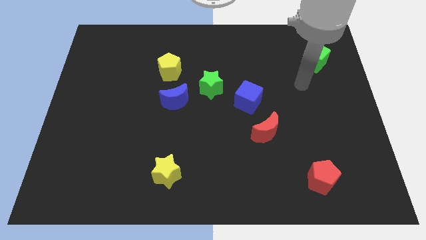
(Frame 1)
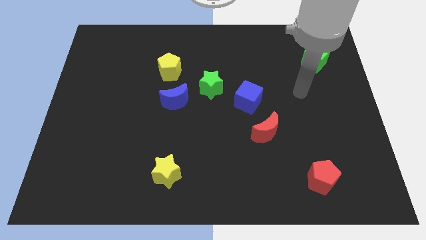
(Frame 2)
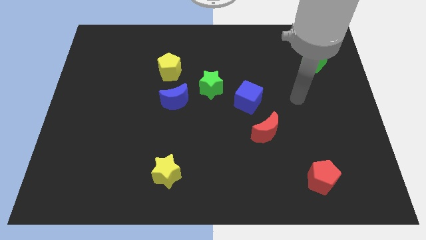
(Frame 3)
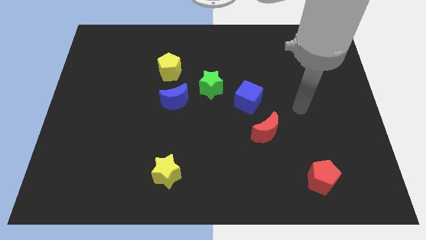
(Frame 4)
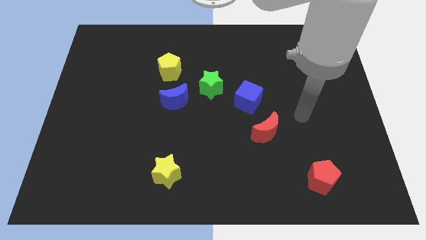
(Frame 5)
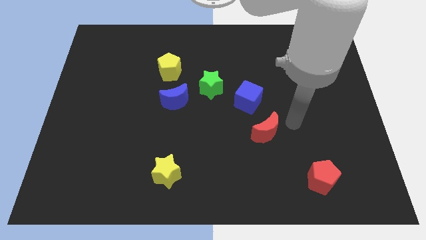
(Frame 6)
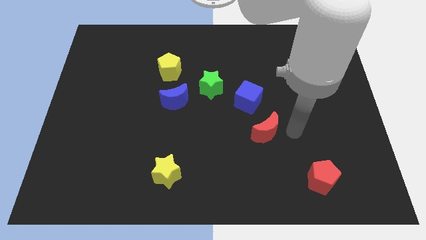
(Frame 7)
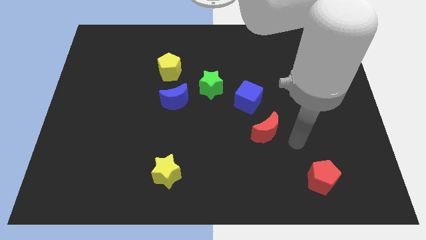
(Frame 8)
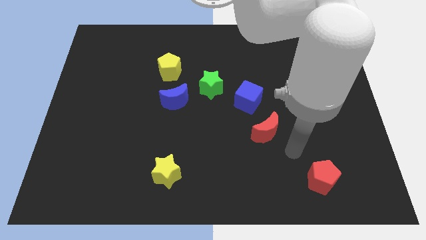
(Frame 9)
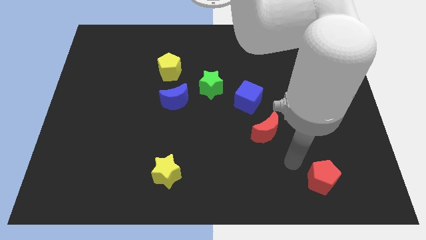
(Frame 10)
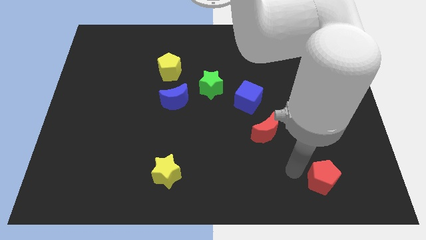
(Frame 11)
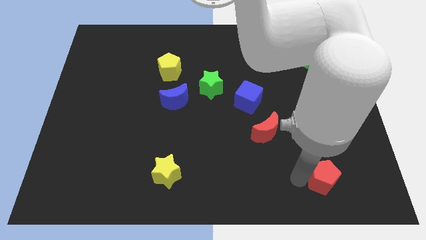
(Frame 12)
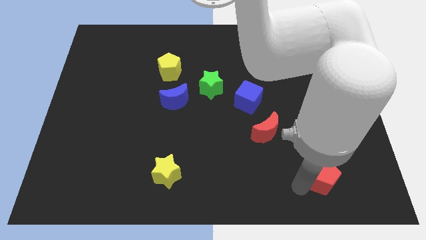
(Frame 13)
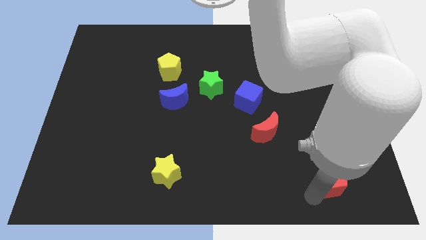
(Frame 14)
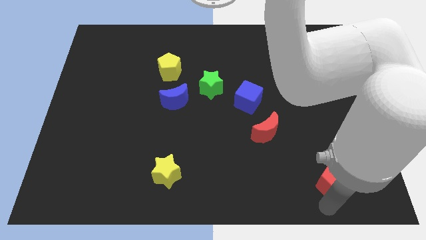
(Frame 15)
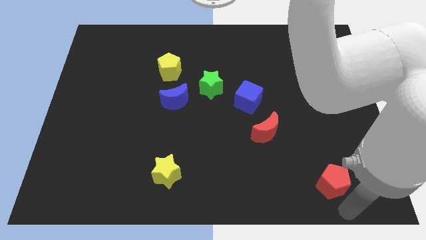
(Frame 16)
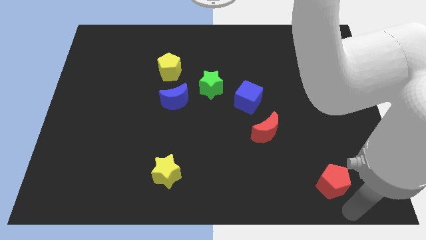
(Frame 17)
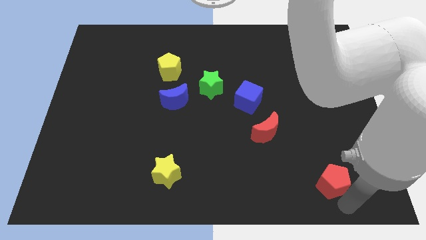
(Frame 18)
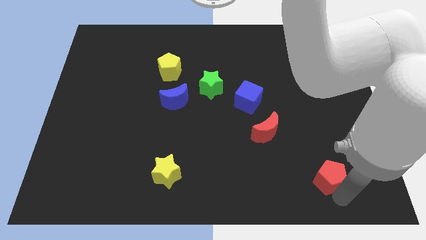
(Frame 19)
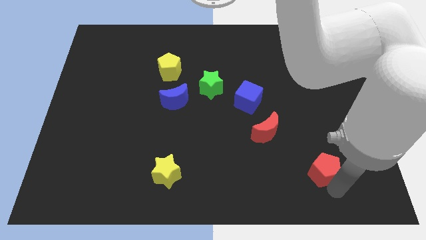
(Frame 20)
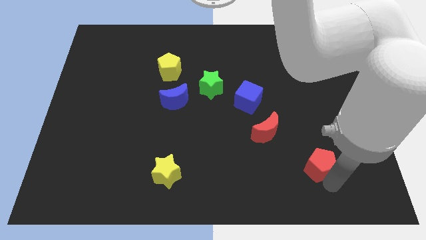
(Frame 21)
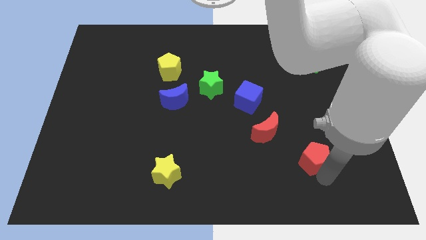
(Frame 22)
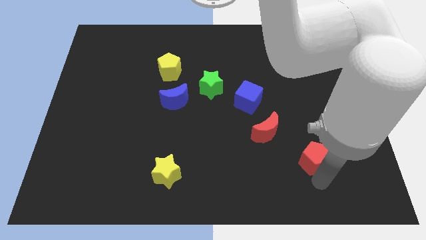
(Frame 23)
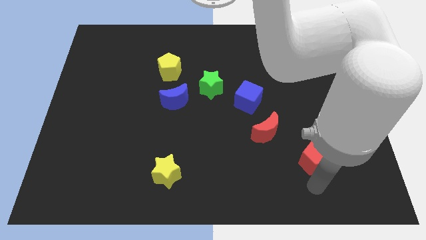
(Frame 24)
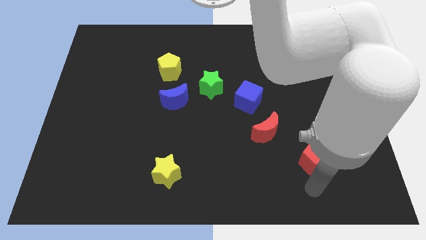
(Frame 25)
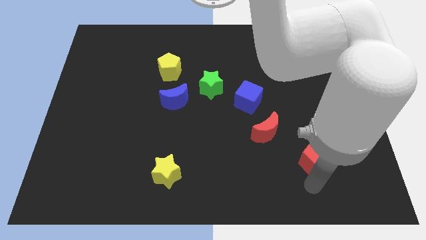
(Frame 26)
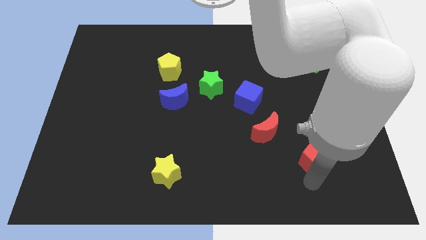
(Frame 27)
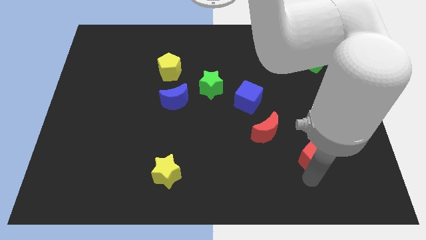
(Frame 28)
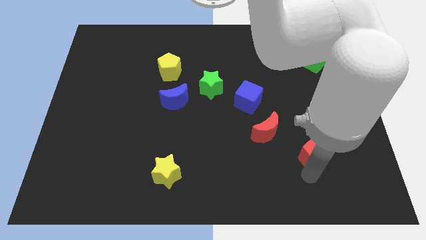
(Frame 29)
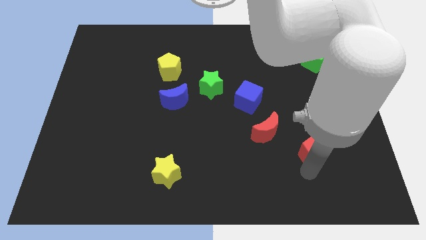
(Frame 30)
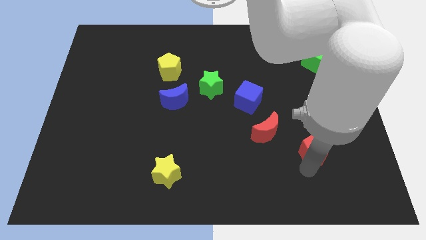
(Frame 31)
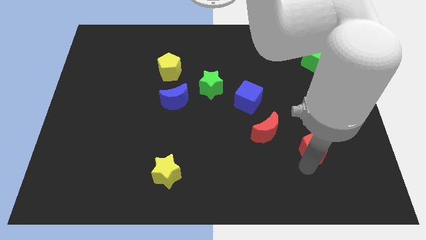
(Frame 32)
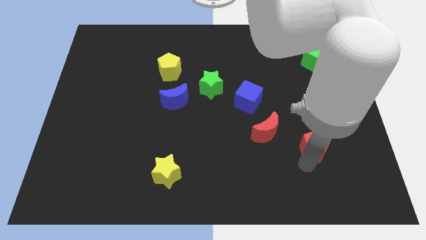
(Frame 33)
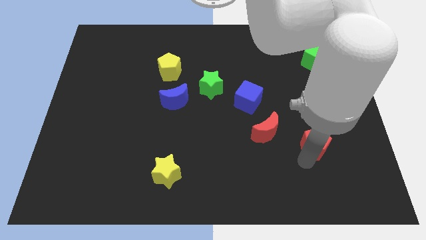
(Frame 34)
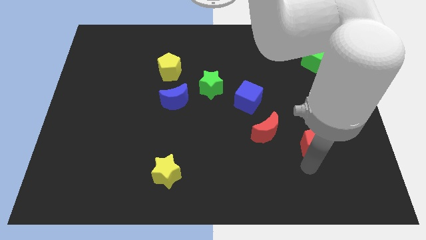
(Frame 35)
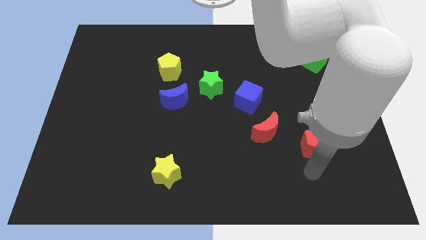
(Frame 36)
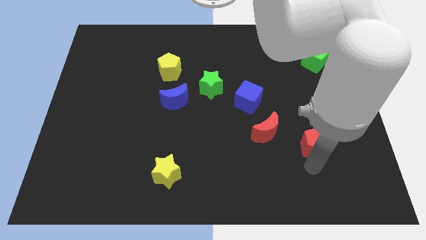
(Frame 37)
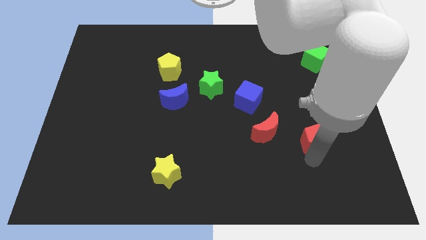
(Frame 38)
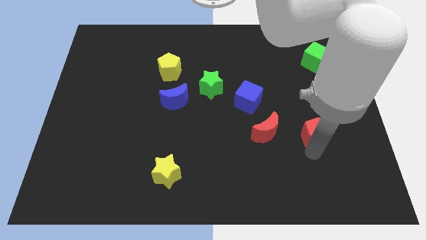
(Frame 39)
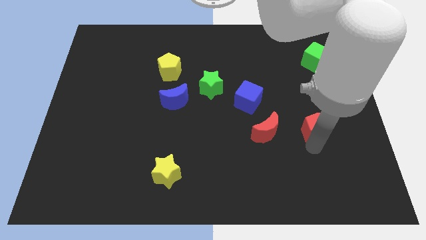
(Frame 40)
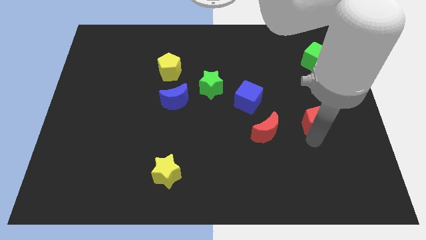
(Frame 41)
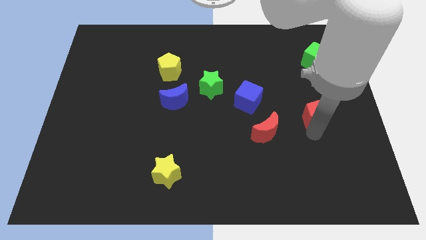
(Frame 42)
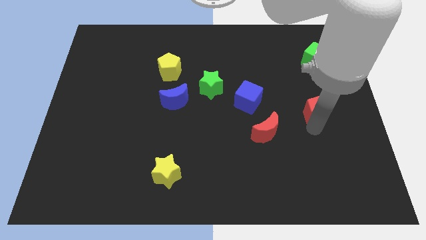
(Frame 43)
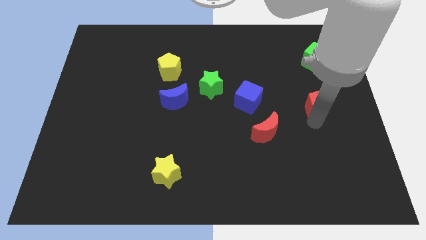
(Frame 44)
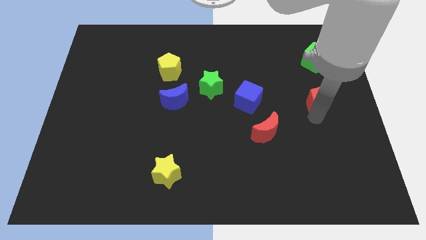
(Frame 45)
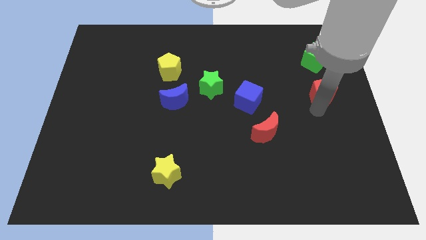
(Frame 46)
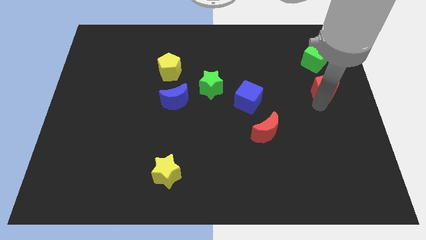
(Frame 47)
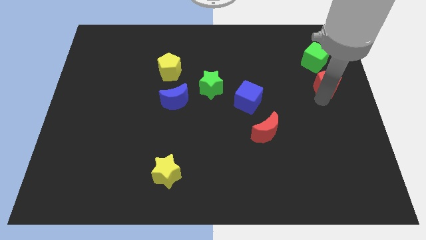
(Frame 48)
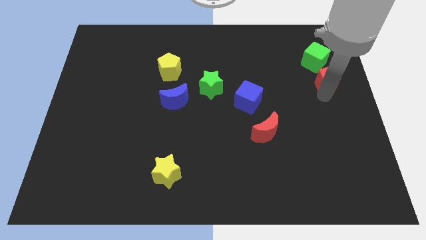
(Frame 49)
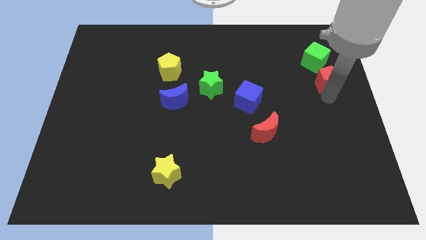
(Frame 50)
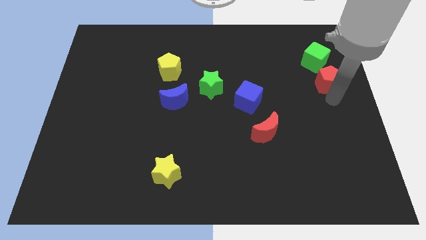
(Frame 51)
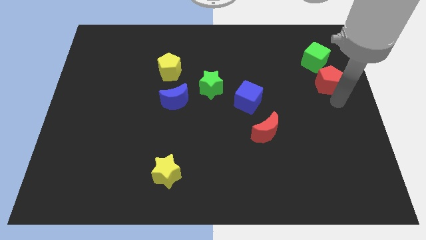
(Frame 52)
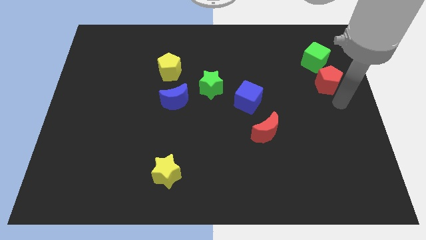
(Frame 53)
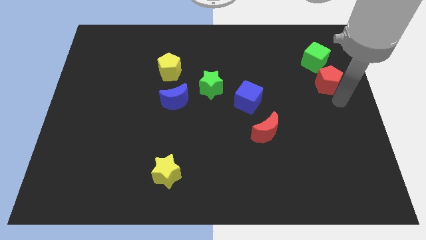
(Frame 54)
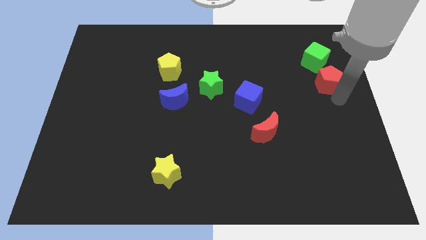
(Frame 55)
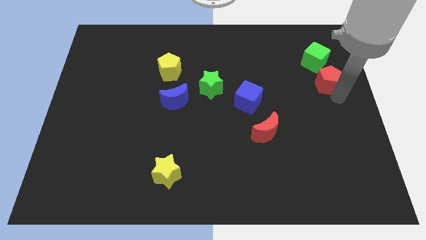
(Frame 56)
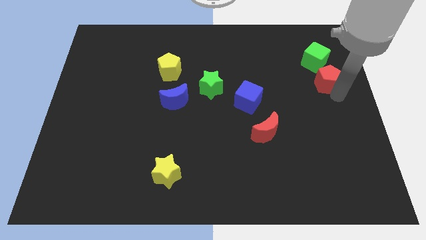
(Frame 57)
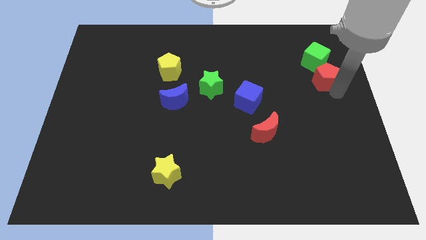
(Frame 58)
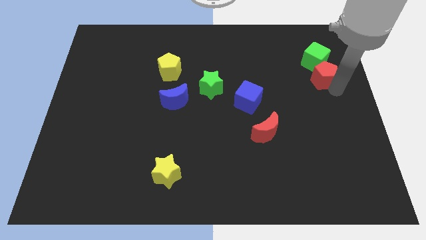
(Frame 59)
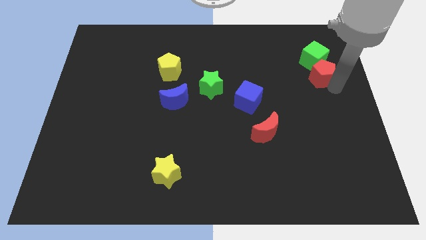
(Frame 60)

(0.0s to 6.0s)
slide the red pentagon next to the green cube

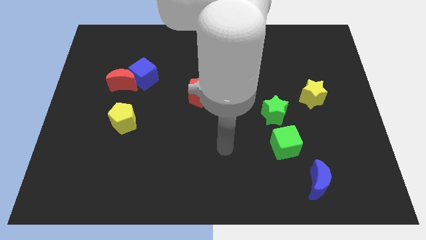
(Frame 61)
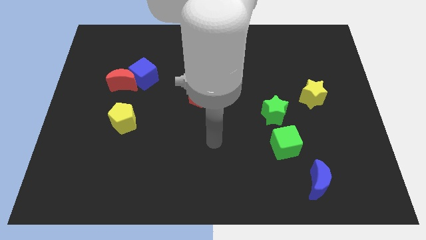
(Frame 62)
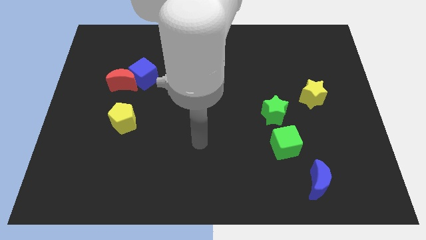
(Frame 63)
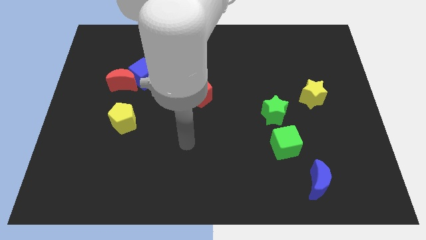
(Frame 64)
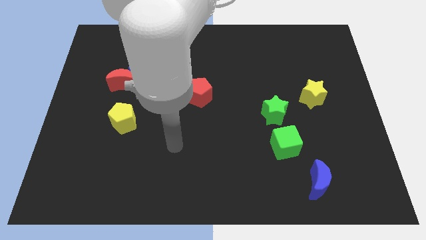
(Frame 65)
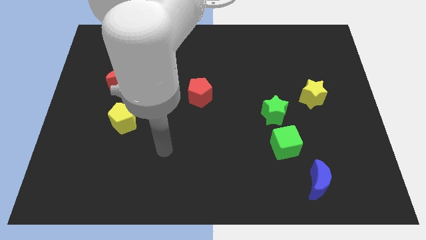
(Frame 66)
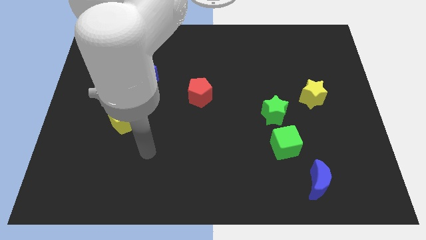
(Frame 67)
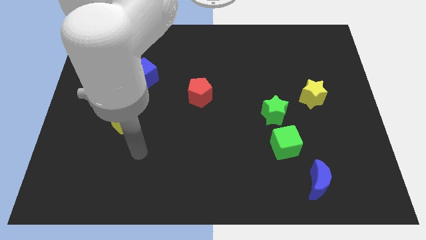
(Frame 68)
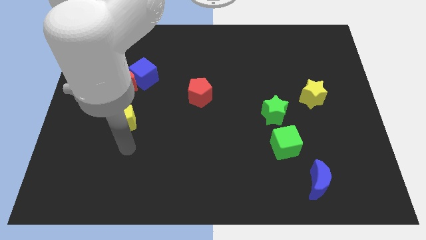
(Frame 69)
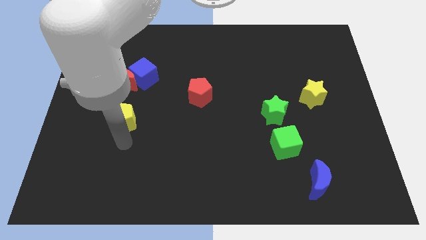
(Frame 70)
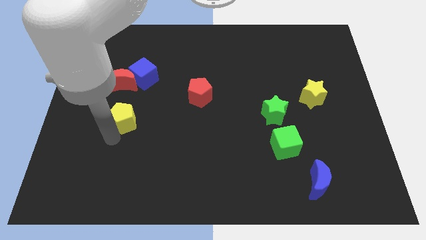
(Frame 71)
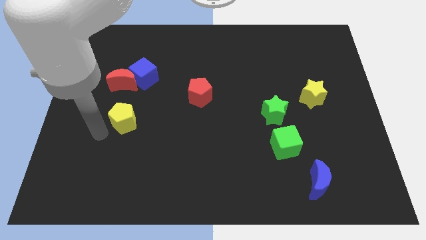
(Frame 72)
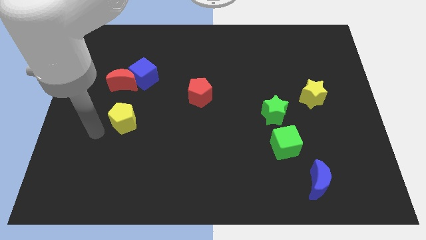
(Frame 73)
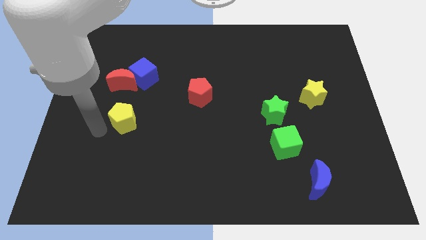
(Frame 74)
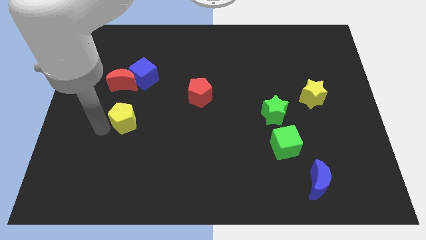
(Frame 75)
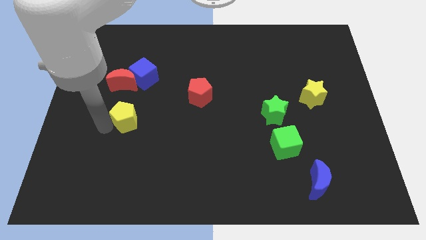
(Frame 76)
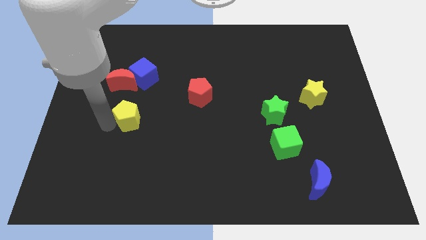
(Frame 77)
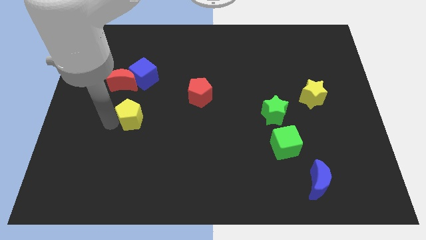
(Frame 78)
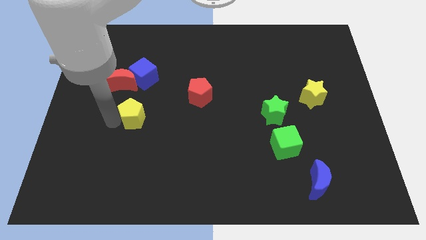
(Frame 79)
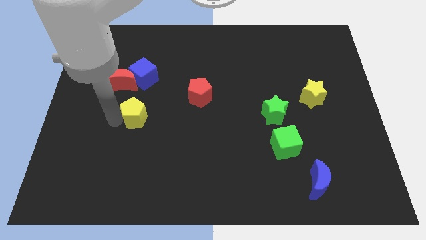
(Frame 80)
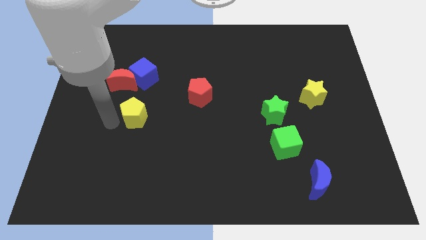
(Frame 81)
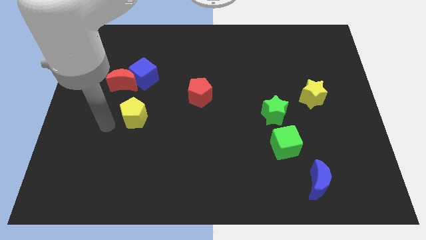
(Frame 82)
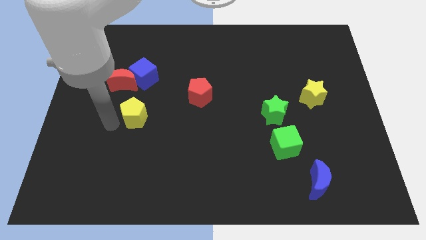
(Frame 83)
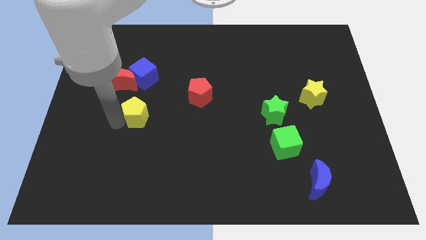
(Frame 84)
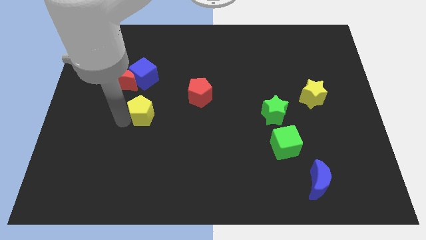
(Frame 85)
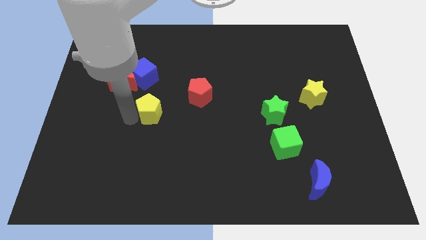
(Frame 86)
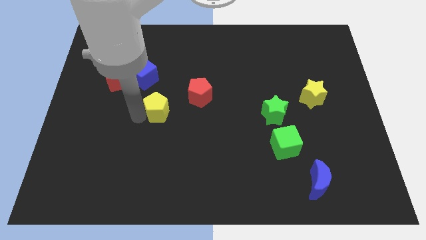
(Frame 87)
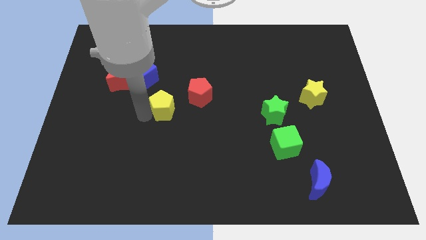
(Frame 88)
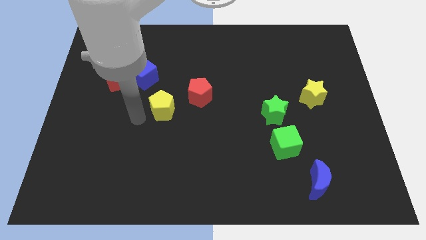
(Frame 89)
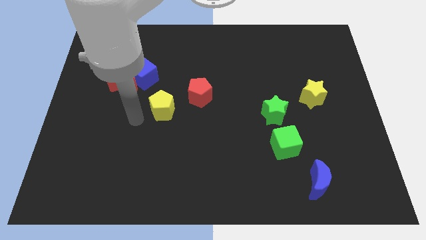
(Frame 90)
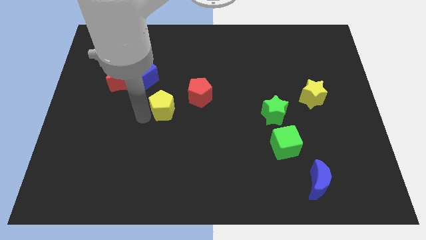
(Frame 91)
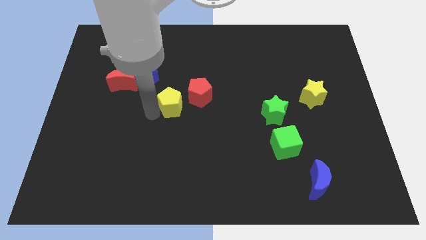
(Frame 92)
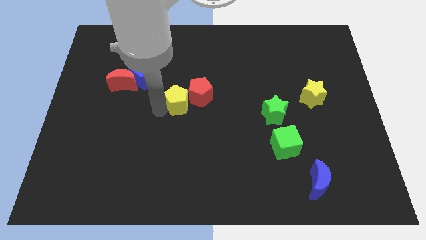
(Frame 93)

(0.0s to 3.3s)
slide the yellow pentagon to the red pentagon
